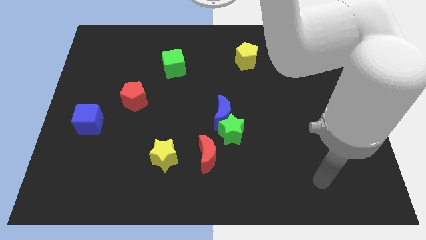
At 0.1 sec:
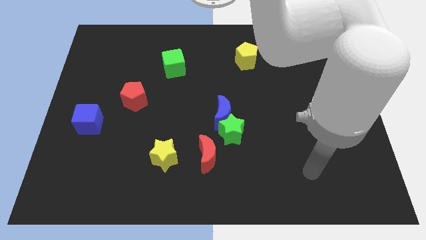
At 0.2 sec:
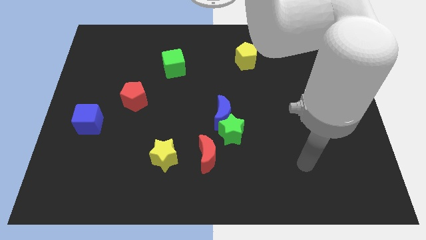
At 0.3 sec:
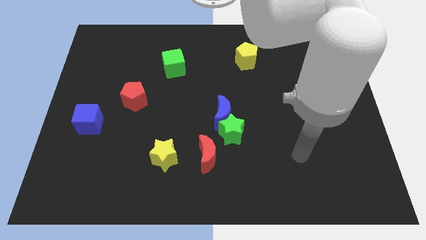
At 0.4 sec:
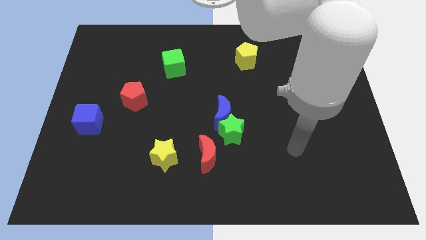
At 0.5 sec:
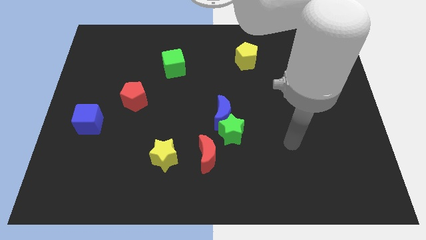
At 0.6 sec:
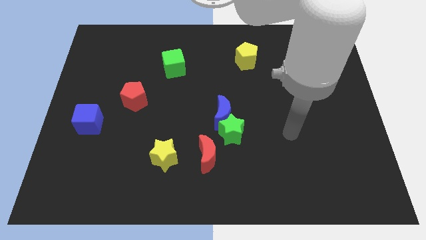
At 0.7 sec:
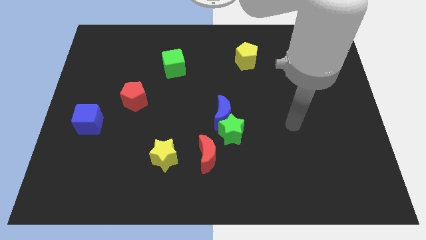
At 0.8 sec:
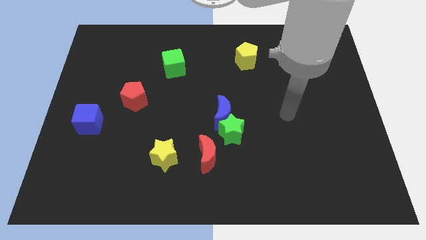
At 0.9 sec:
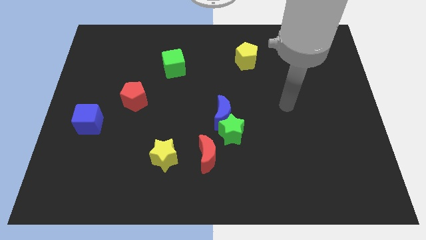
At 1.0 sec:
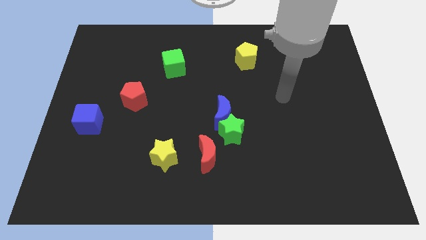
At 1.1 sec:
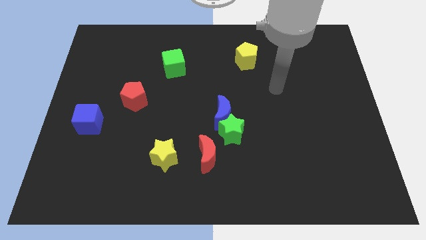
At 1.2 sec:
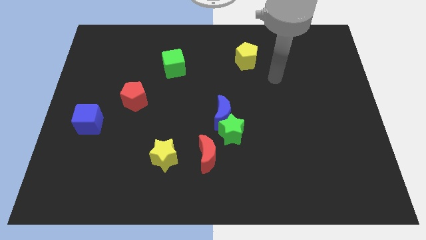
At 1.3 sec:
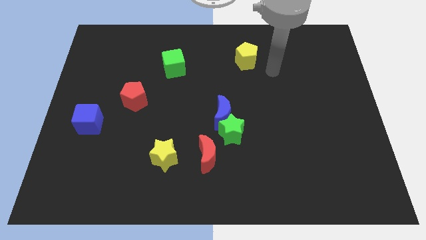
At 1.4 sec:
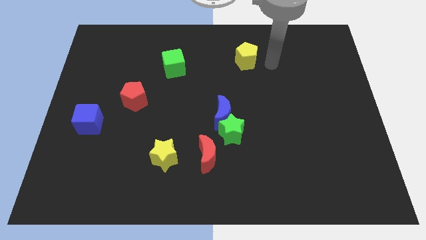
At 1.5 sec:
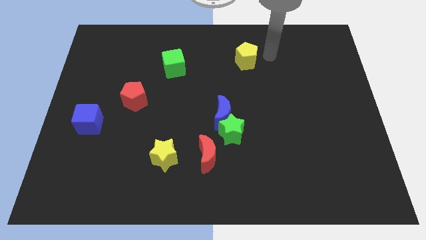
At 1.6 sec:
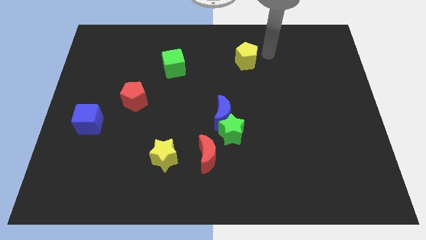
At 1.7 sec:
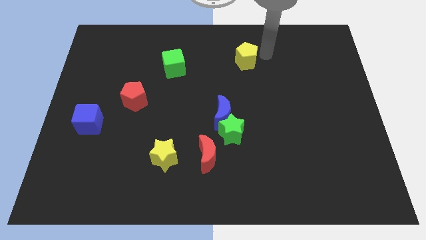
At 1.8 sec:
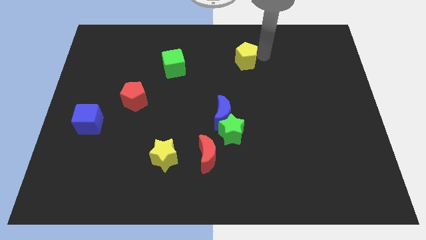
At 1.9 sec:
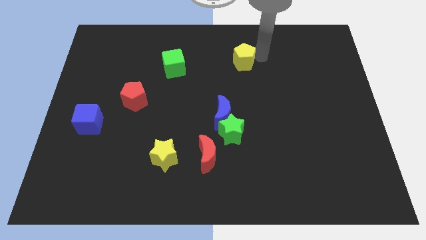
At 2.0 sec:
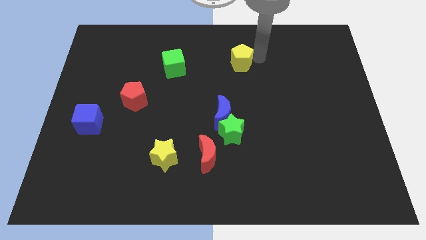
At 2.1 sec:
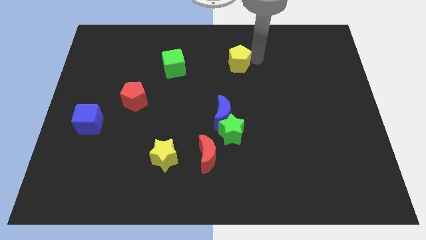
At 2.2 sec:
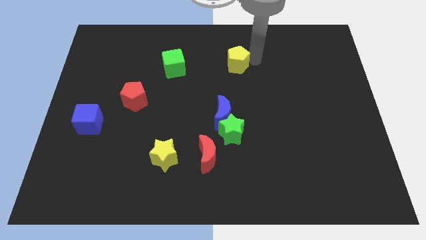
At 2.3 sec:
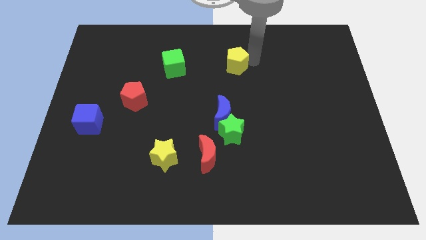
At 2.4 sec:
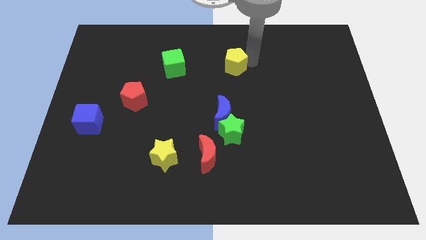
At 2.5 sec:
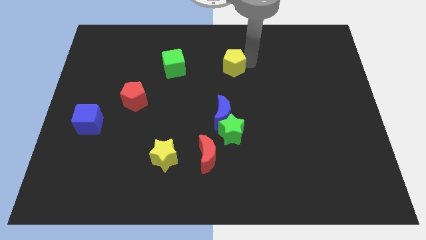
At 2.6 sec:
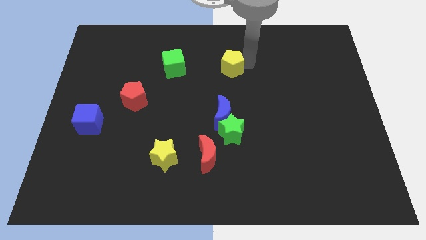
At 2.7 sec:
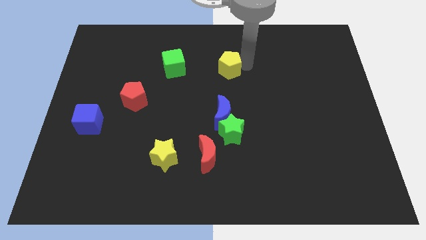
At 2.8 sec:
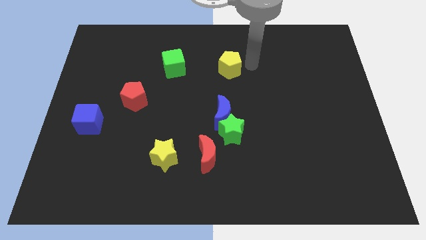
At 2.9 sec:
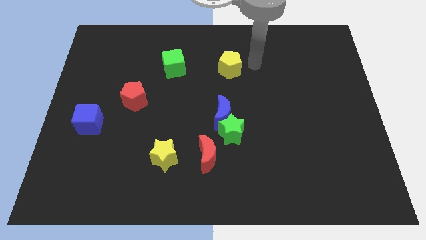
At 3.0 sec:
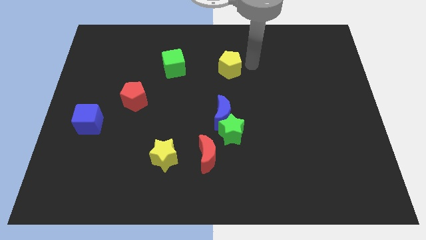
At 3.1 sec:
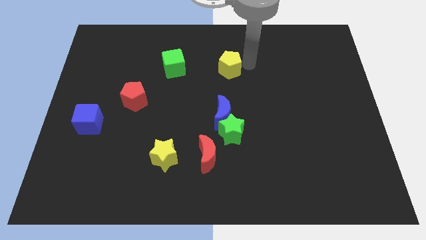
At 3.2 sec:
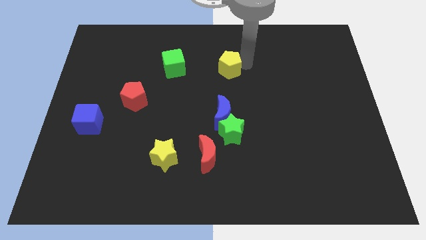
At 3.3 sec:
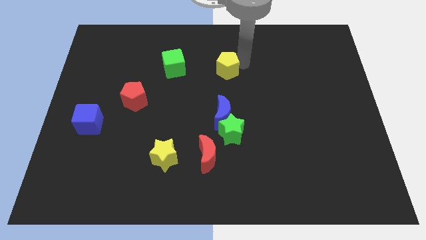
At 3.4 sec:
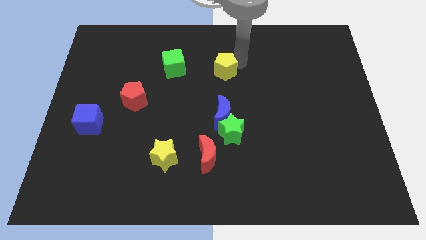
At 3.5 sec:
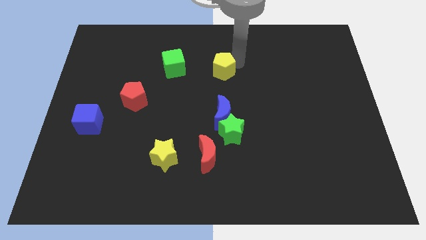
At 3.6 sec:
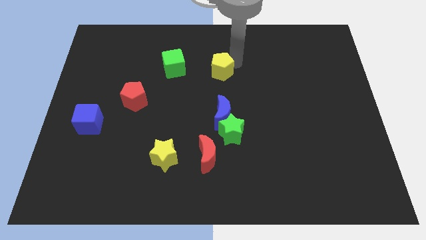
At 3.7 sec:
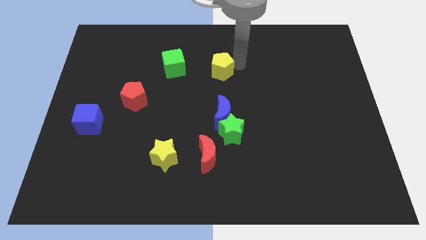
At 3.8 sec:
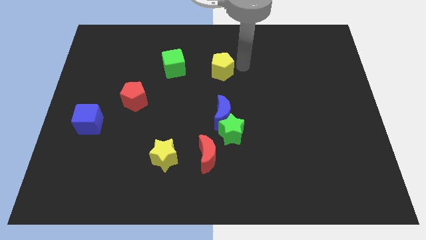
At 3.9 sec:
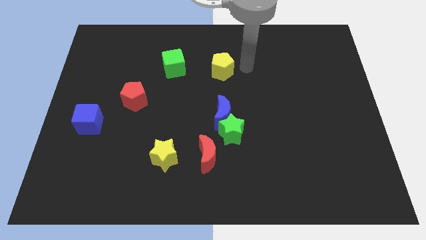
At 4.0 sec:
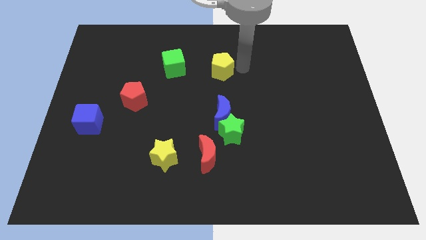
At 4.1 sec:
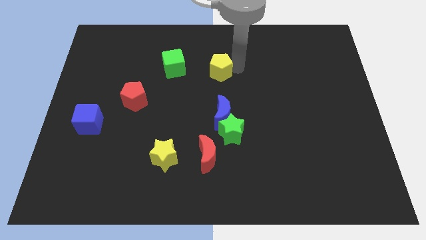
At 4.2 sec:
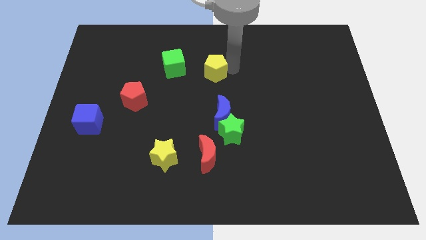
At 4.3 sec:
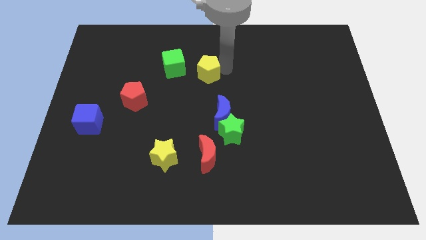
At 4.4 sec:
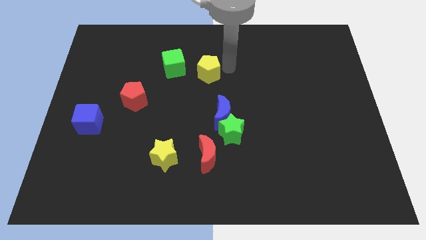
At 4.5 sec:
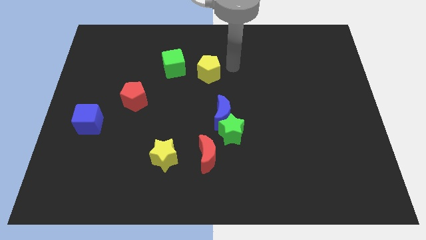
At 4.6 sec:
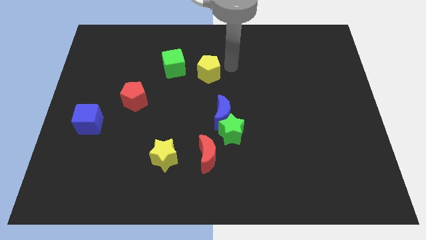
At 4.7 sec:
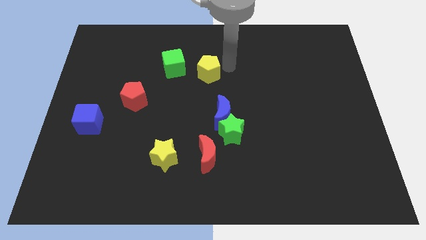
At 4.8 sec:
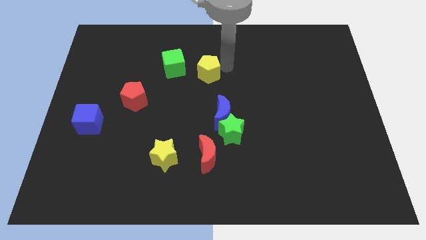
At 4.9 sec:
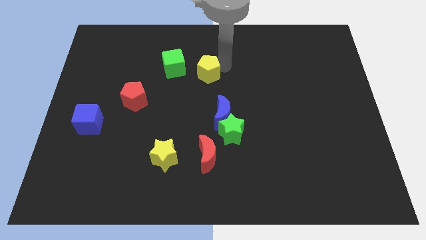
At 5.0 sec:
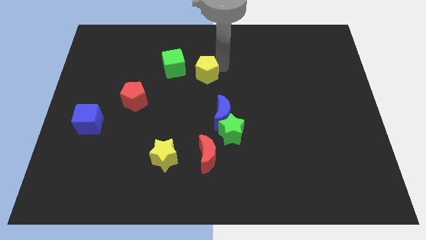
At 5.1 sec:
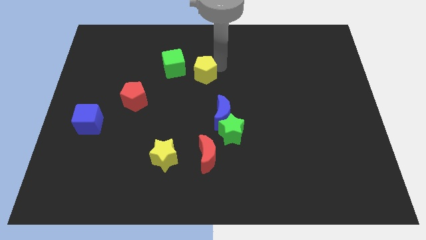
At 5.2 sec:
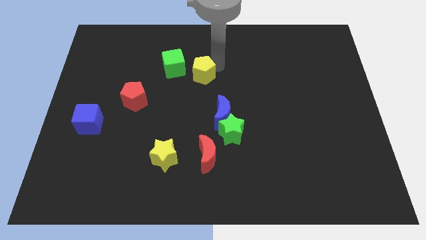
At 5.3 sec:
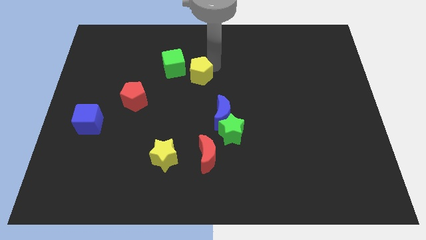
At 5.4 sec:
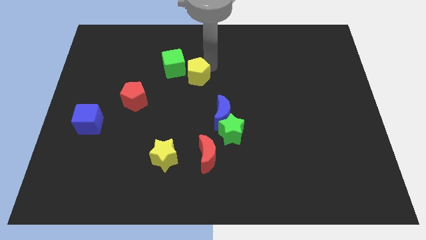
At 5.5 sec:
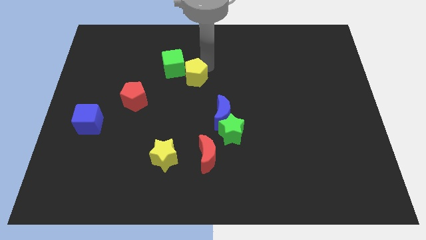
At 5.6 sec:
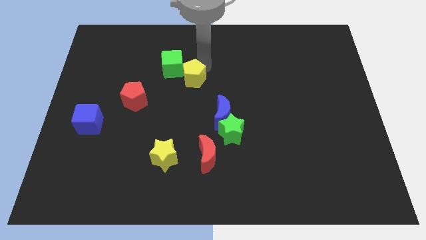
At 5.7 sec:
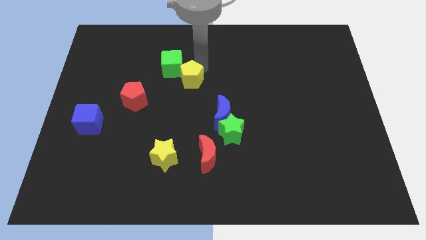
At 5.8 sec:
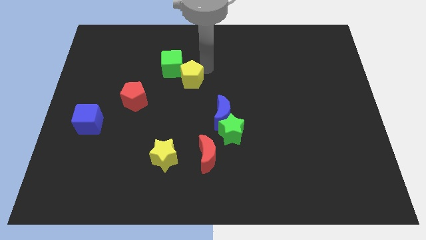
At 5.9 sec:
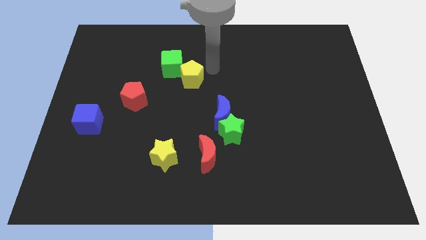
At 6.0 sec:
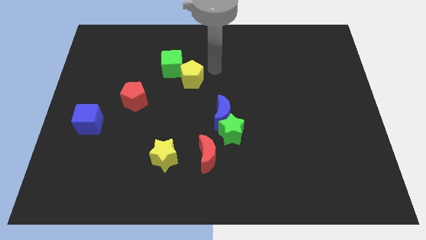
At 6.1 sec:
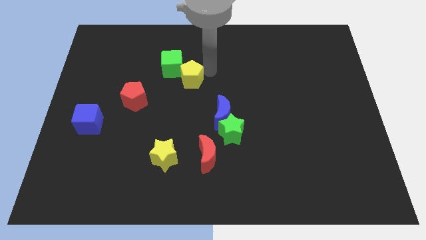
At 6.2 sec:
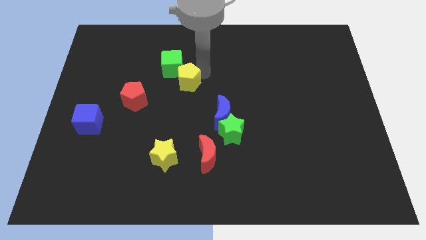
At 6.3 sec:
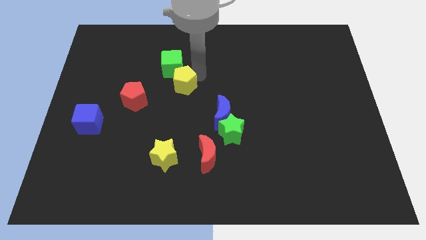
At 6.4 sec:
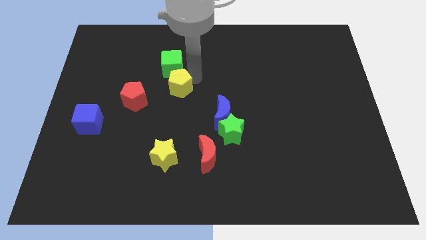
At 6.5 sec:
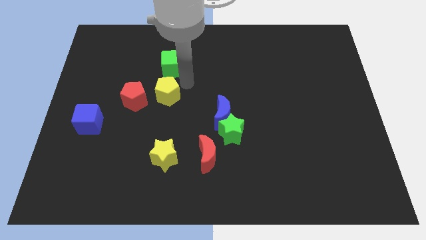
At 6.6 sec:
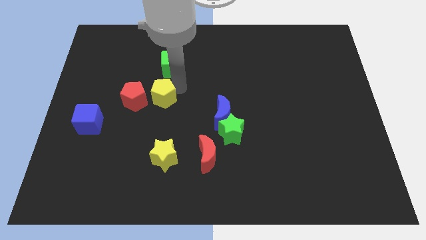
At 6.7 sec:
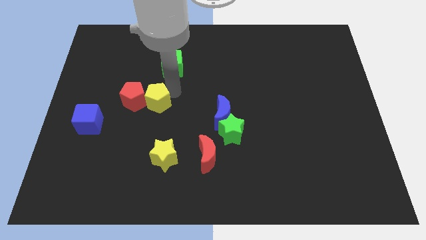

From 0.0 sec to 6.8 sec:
put the yellow pentagon close to the red pentagon
